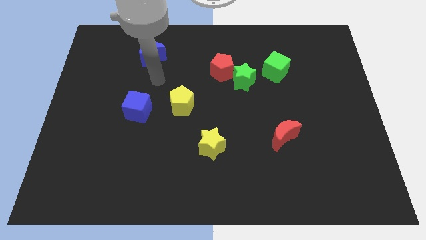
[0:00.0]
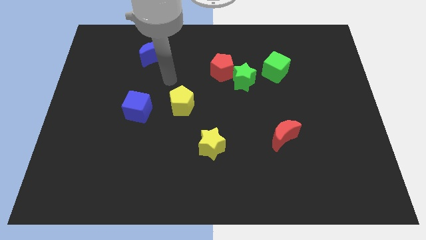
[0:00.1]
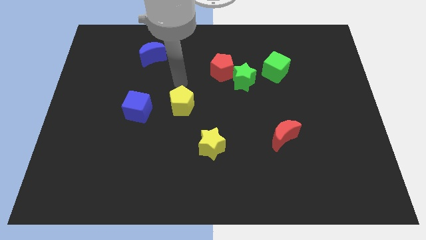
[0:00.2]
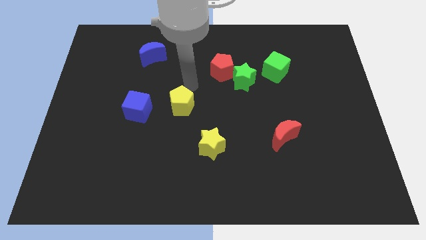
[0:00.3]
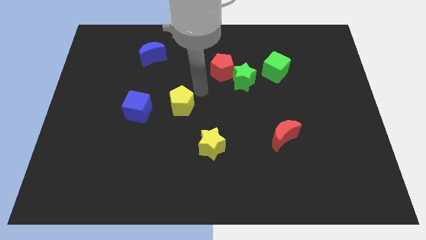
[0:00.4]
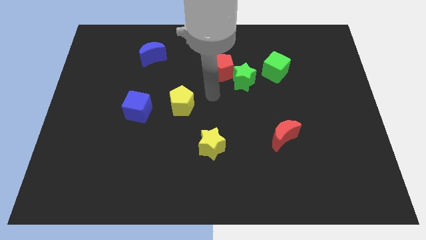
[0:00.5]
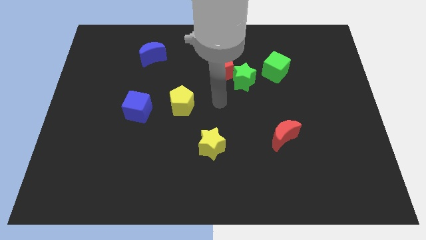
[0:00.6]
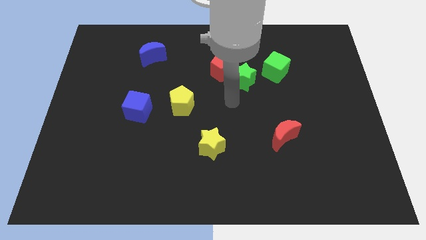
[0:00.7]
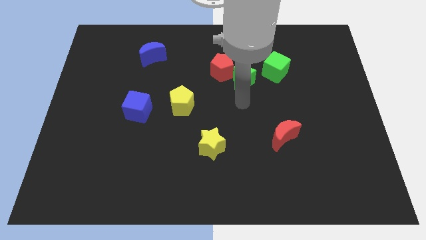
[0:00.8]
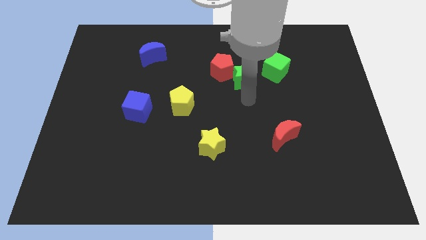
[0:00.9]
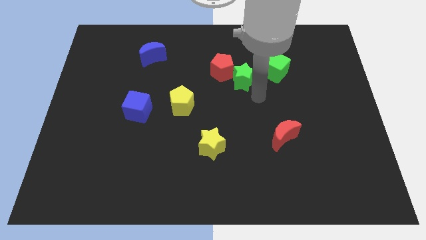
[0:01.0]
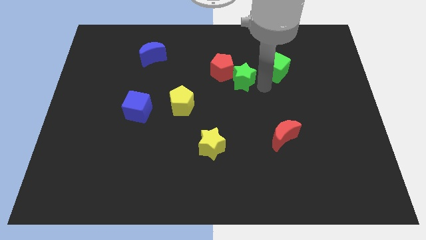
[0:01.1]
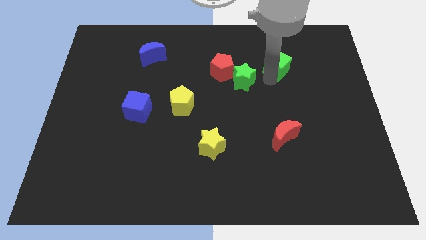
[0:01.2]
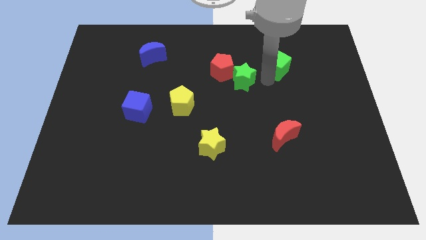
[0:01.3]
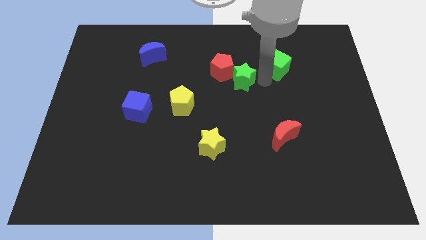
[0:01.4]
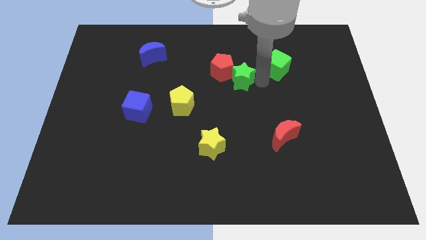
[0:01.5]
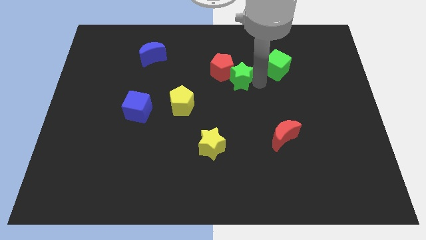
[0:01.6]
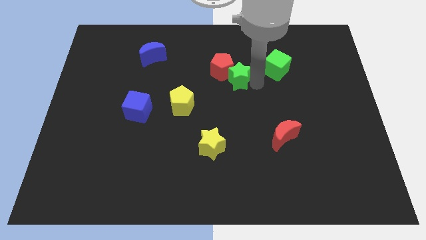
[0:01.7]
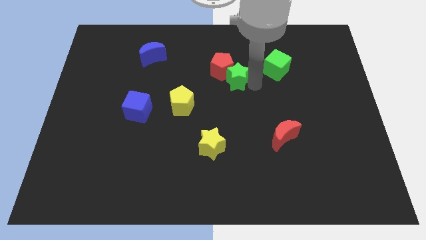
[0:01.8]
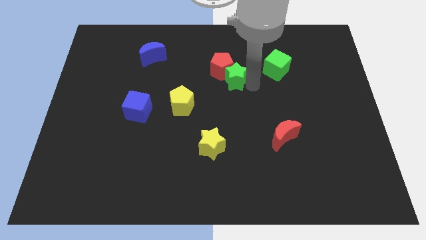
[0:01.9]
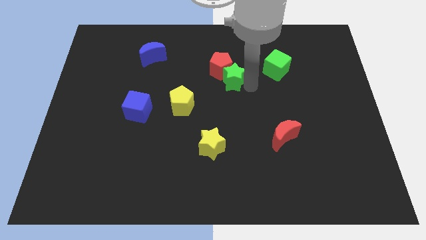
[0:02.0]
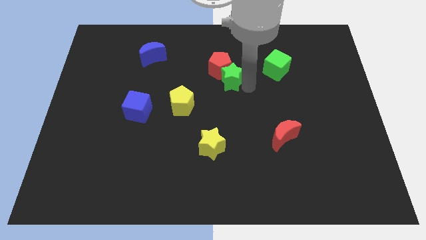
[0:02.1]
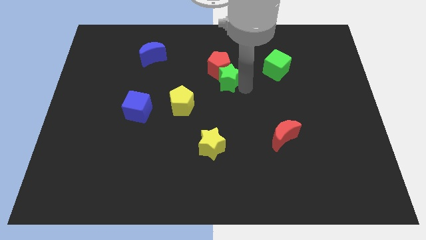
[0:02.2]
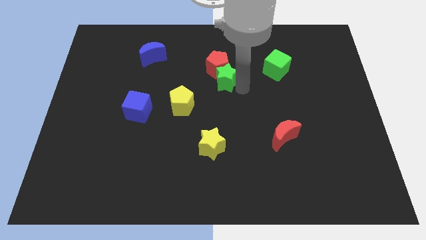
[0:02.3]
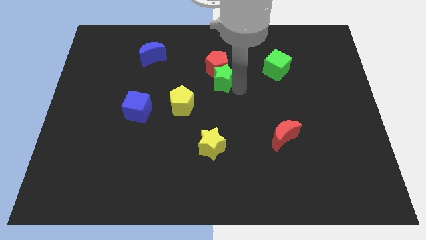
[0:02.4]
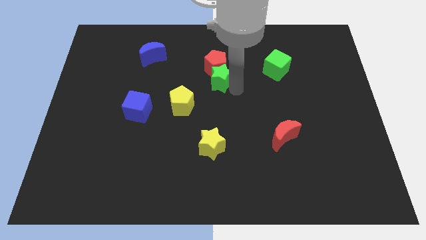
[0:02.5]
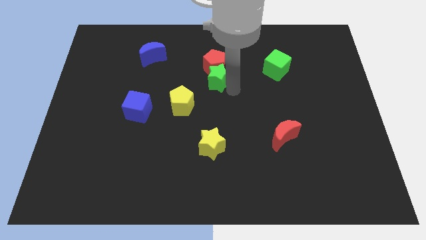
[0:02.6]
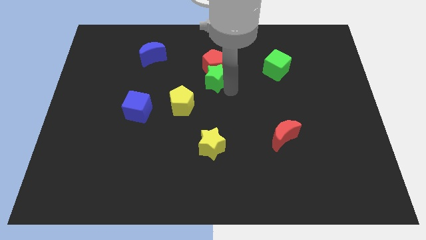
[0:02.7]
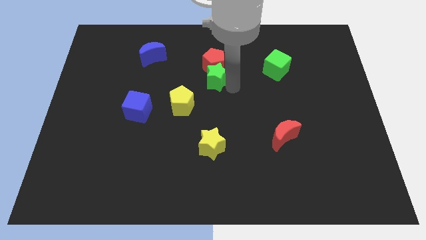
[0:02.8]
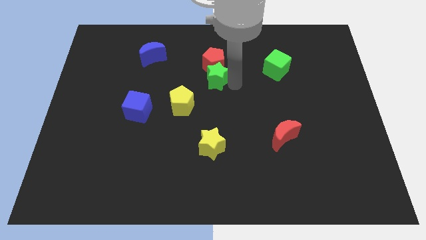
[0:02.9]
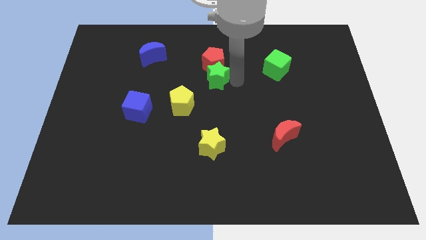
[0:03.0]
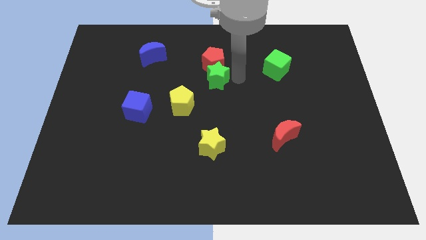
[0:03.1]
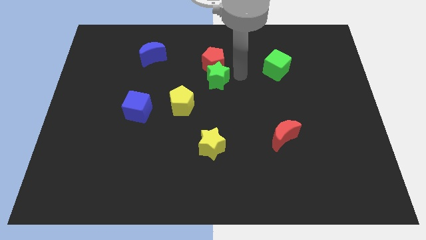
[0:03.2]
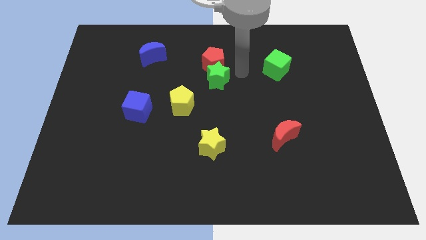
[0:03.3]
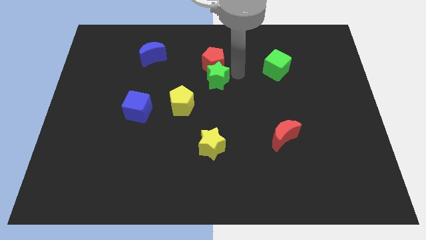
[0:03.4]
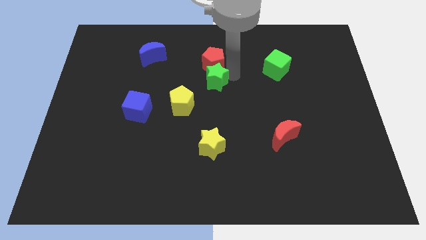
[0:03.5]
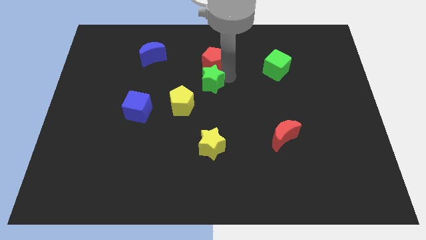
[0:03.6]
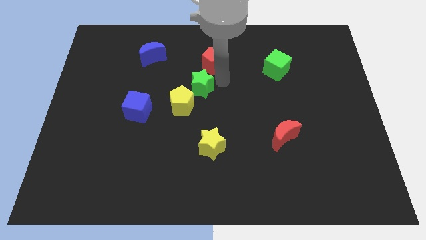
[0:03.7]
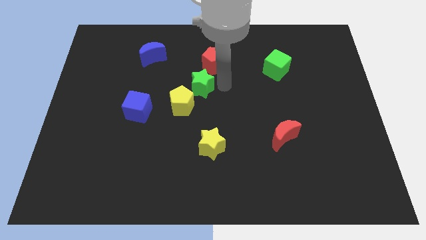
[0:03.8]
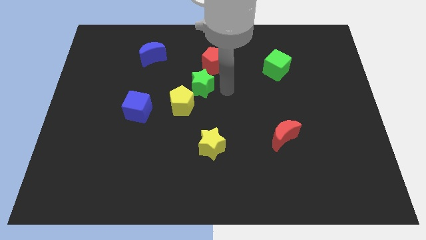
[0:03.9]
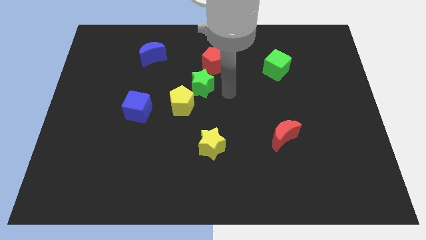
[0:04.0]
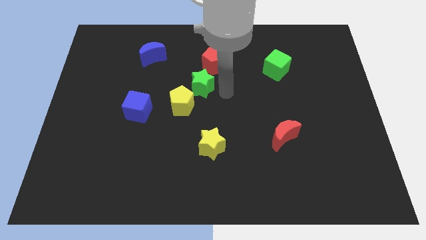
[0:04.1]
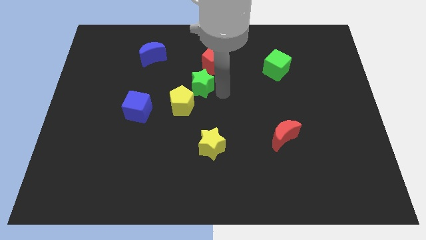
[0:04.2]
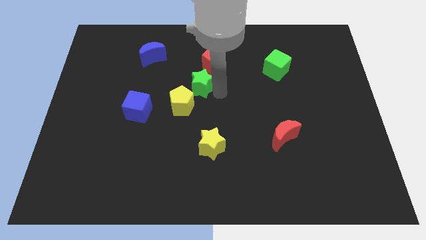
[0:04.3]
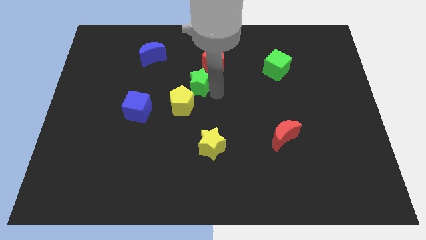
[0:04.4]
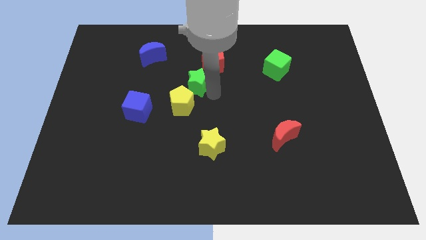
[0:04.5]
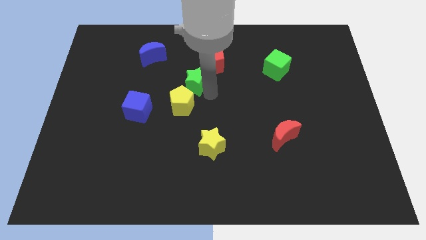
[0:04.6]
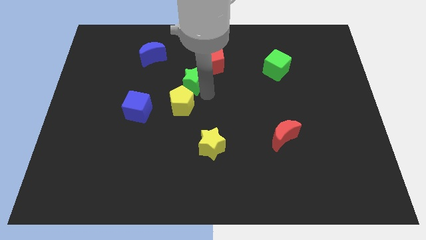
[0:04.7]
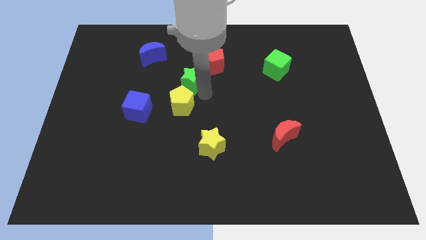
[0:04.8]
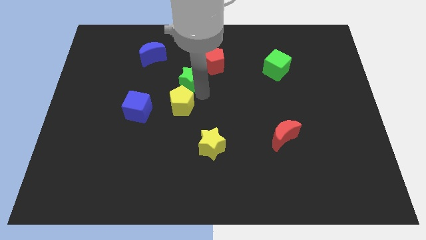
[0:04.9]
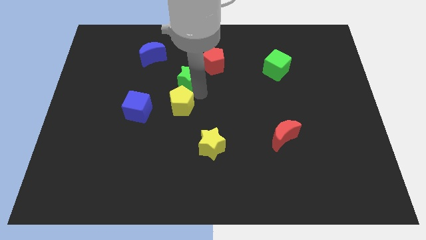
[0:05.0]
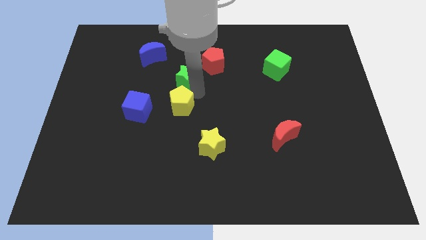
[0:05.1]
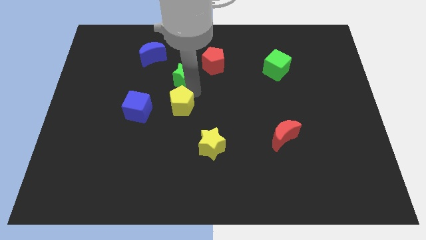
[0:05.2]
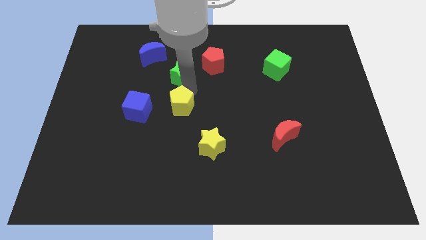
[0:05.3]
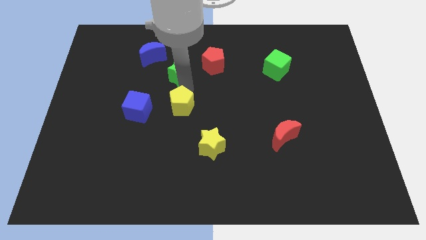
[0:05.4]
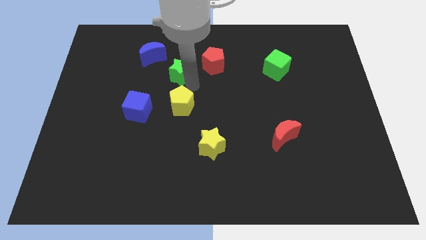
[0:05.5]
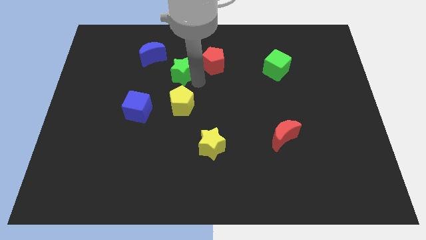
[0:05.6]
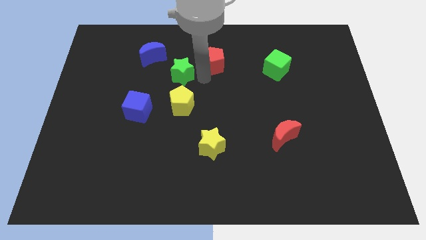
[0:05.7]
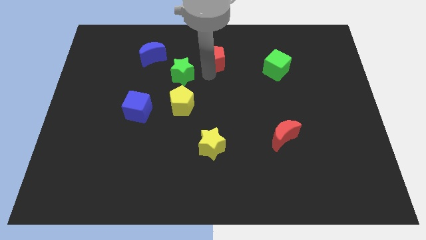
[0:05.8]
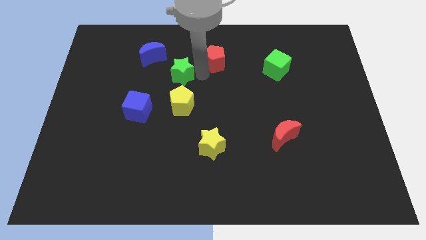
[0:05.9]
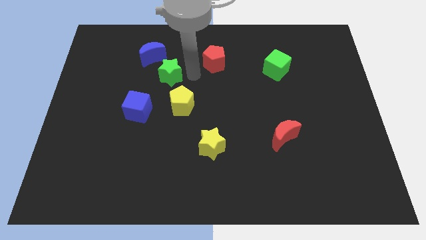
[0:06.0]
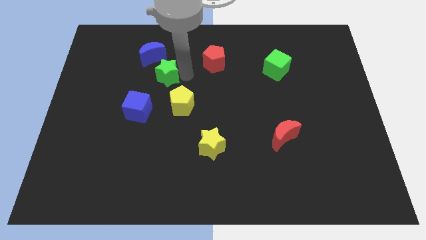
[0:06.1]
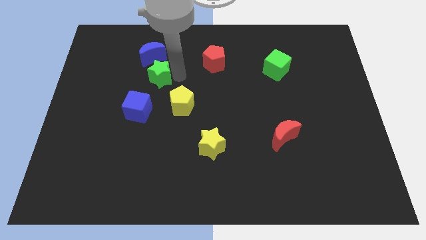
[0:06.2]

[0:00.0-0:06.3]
put the green star to the top of the blue cube

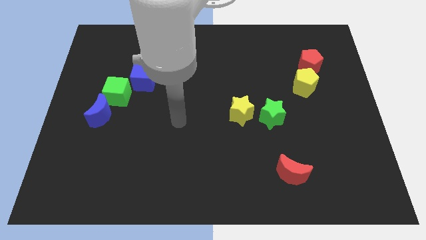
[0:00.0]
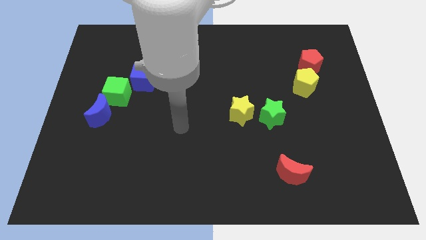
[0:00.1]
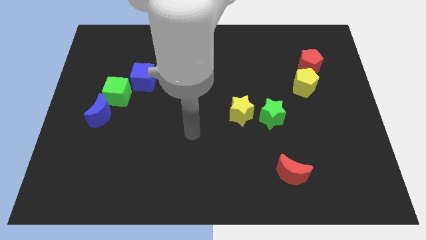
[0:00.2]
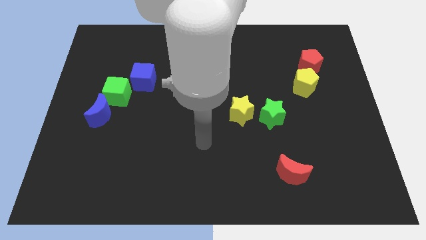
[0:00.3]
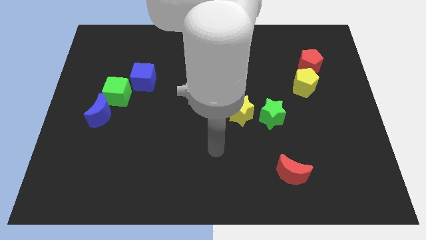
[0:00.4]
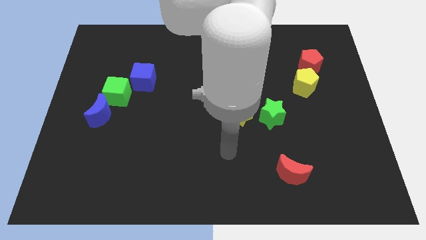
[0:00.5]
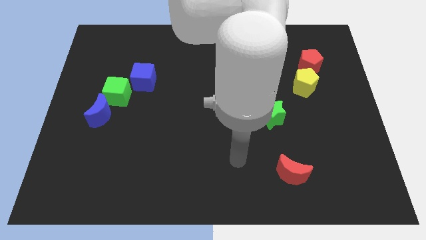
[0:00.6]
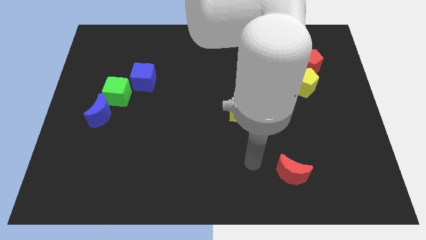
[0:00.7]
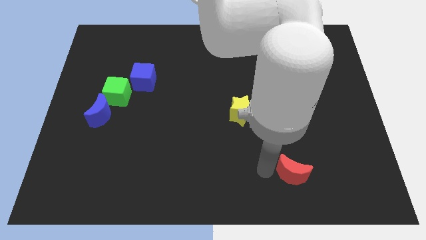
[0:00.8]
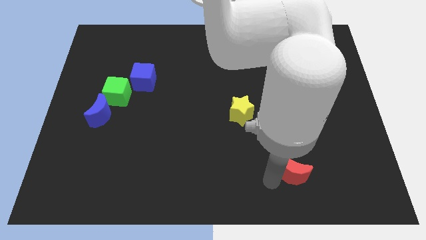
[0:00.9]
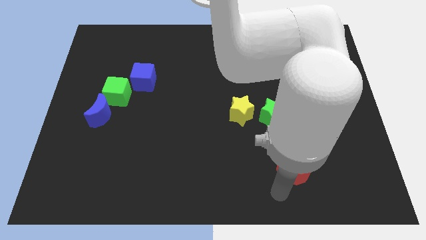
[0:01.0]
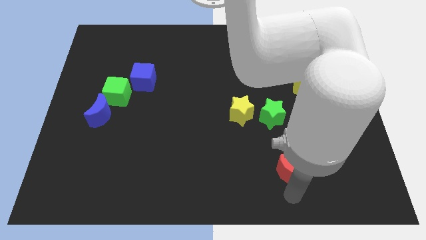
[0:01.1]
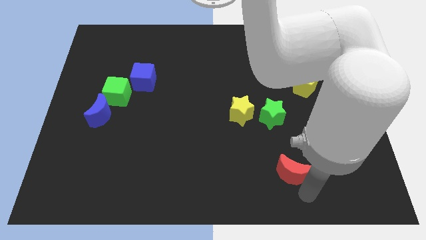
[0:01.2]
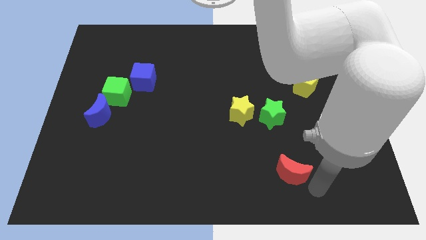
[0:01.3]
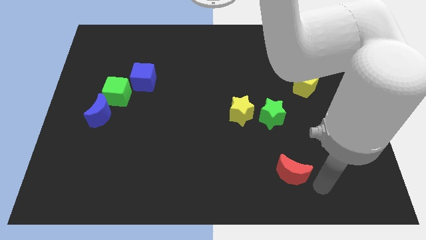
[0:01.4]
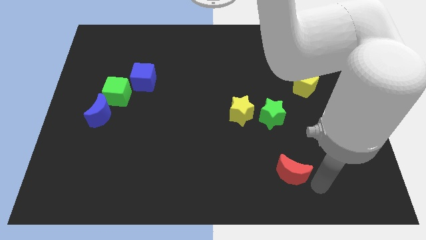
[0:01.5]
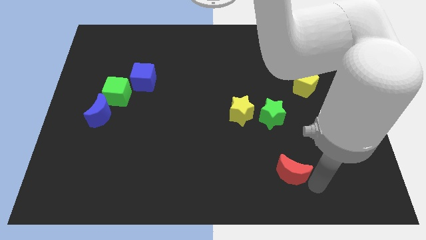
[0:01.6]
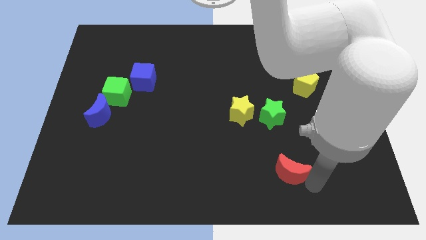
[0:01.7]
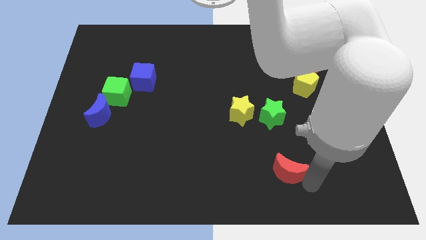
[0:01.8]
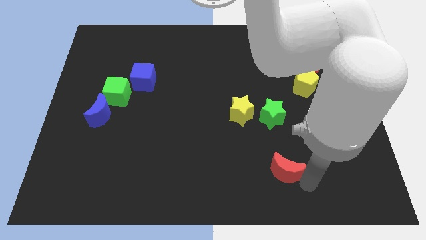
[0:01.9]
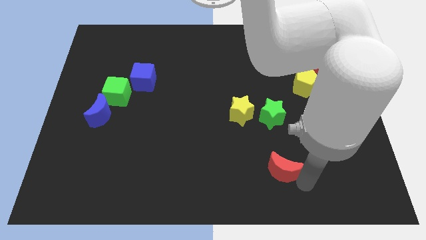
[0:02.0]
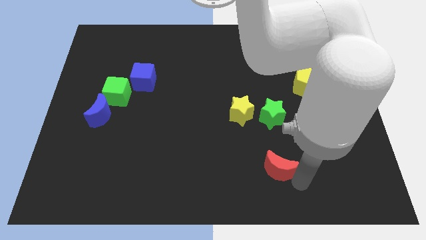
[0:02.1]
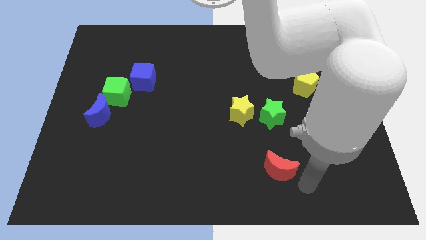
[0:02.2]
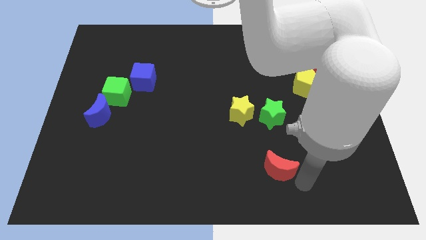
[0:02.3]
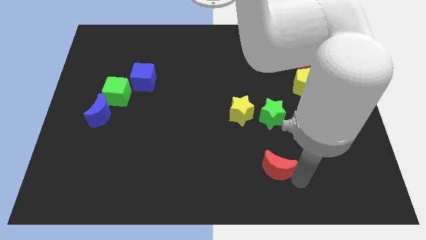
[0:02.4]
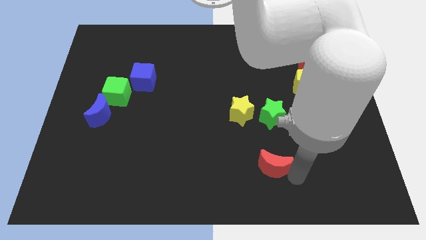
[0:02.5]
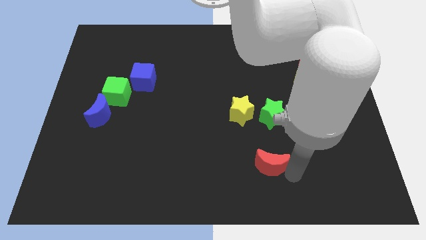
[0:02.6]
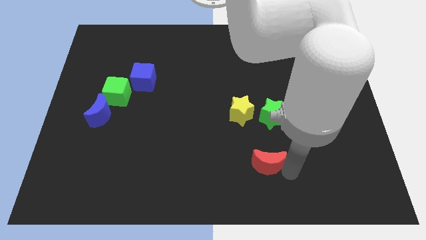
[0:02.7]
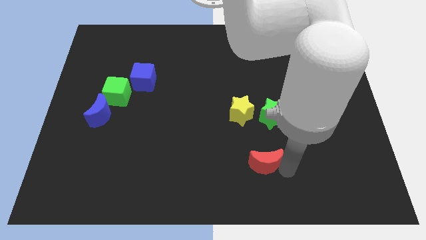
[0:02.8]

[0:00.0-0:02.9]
move the red moon to the bottom of the yellow star
